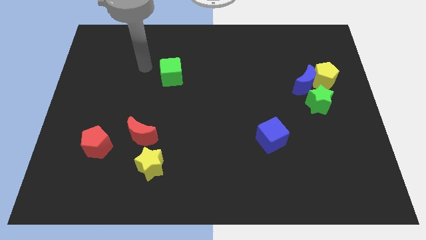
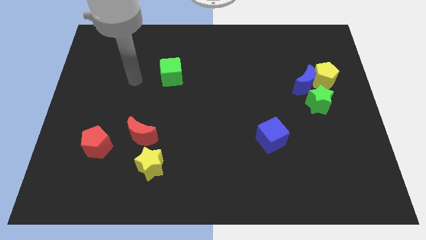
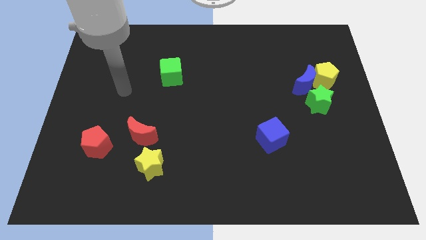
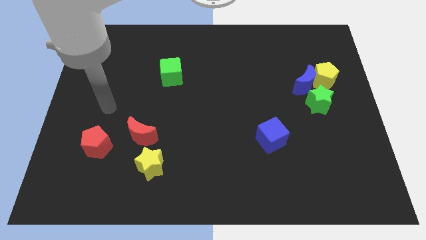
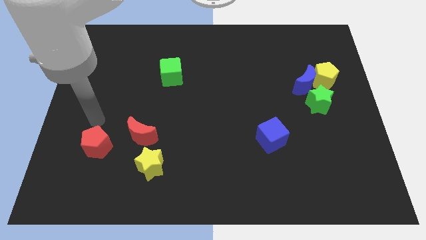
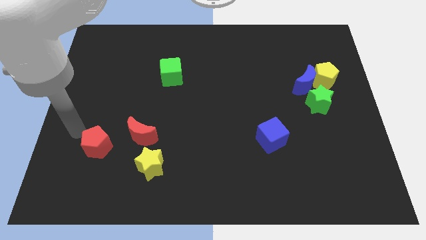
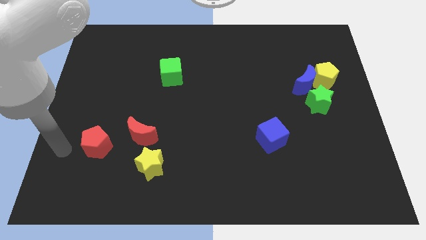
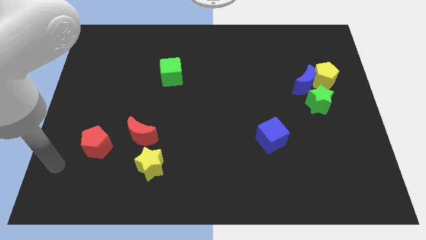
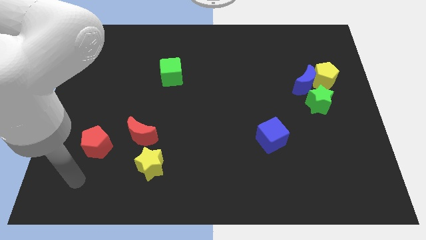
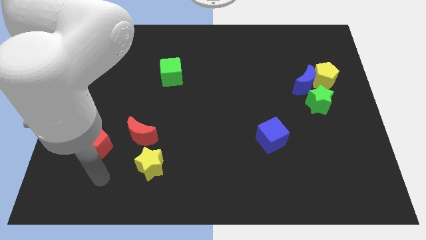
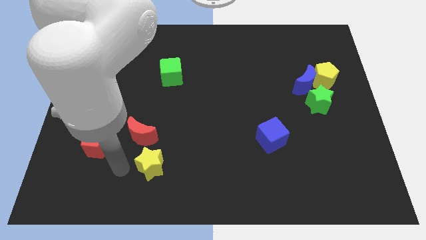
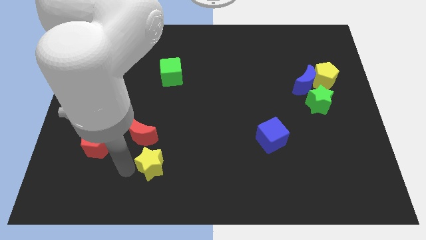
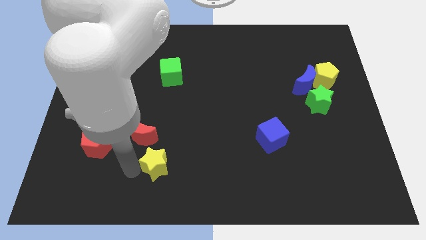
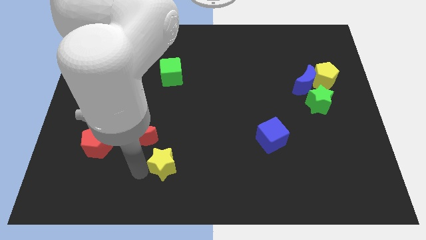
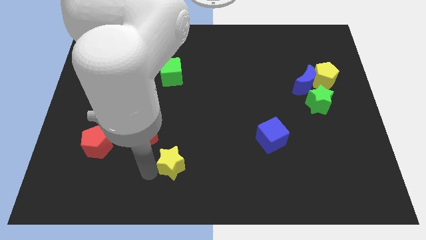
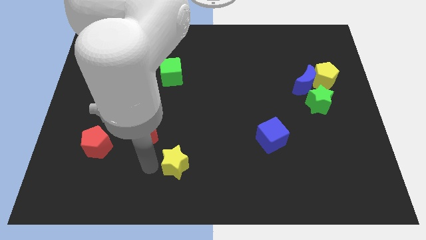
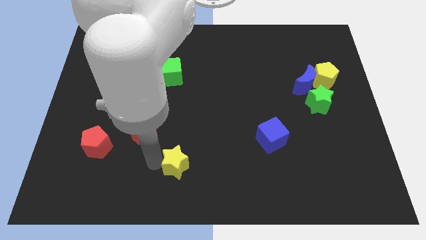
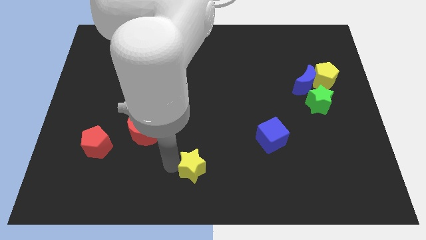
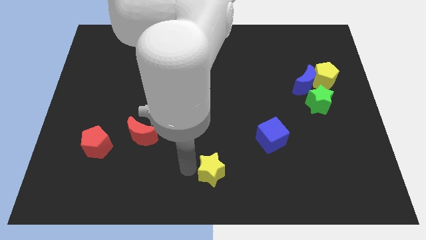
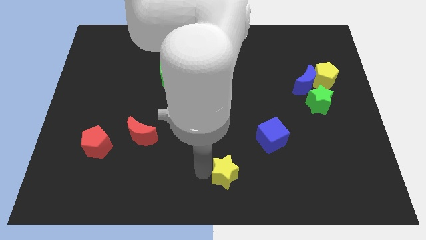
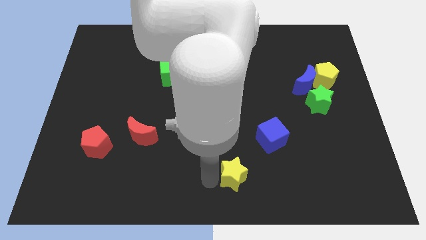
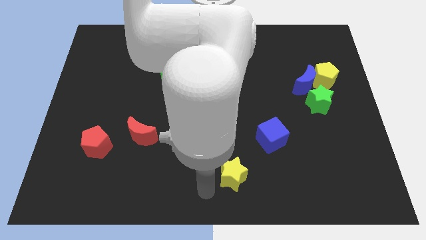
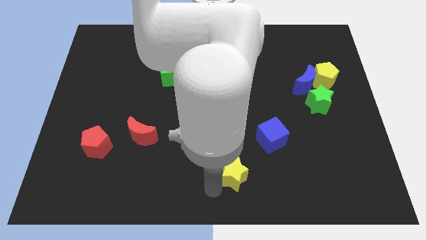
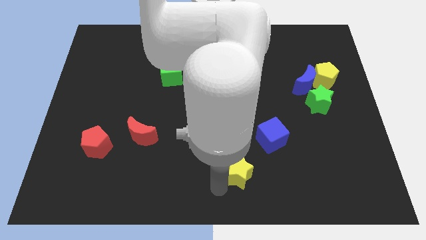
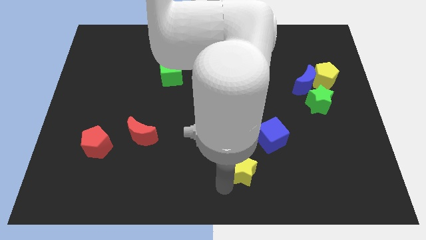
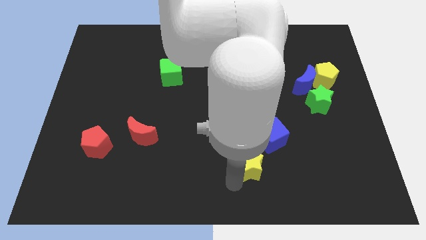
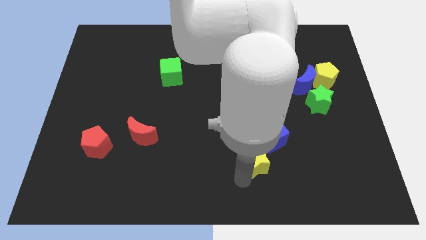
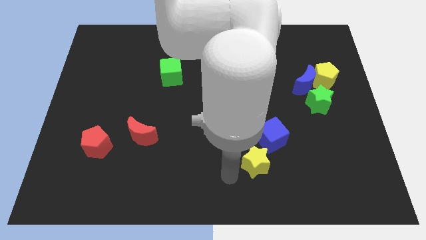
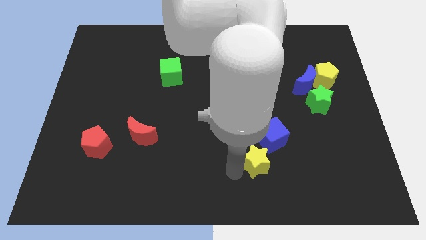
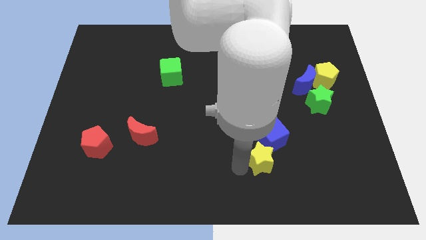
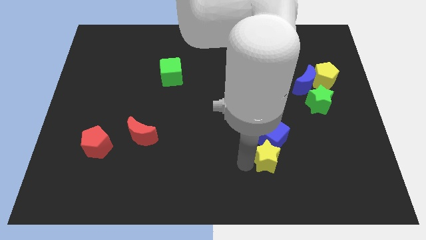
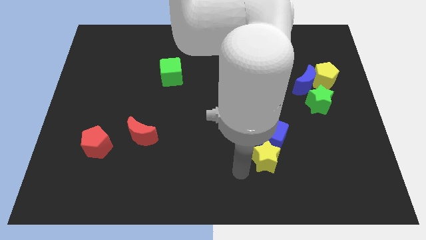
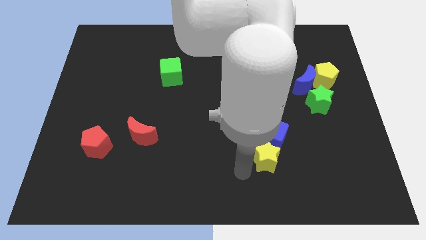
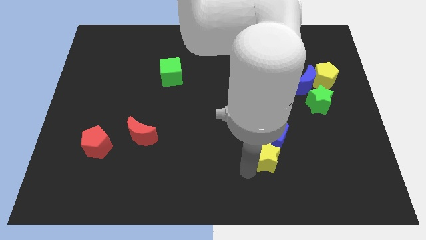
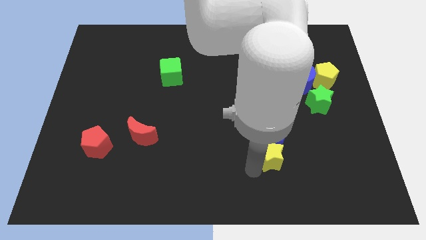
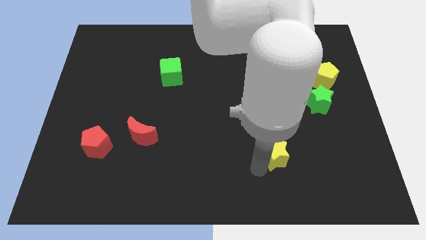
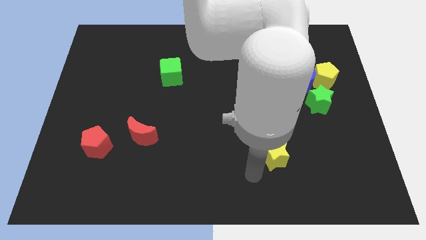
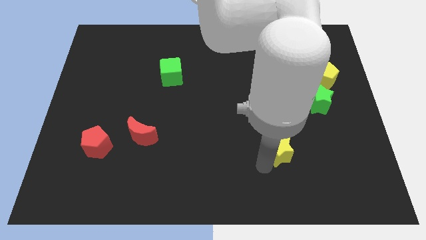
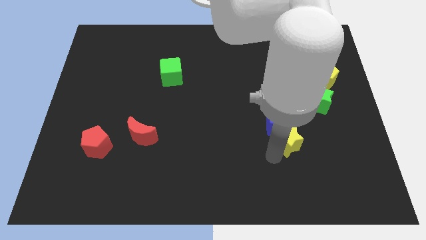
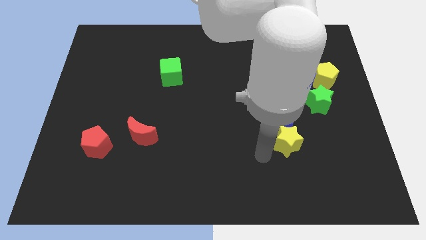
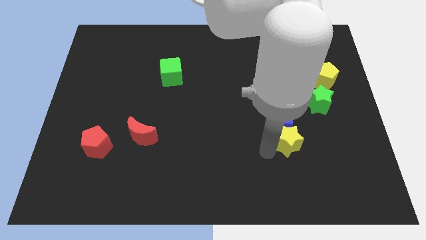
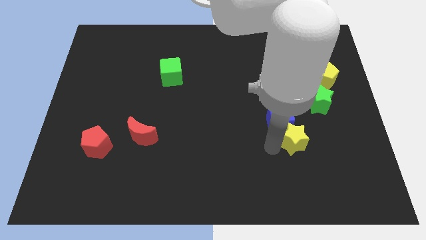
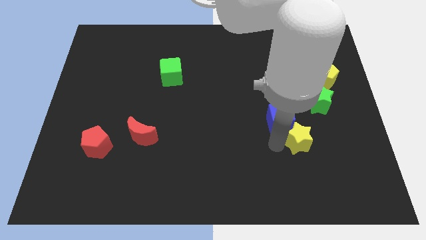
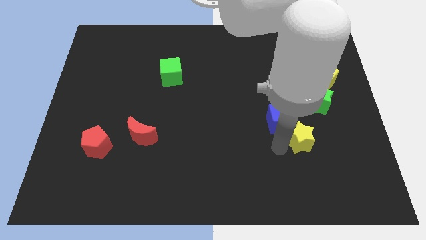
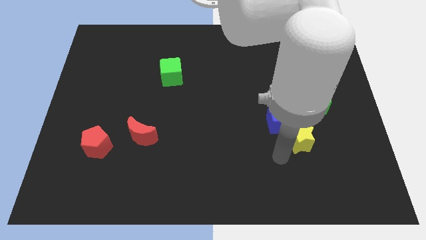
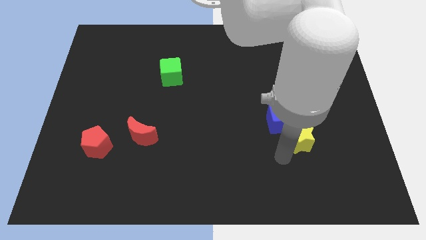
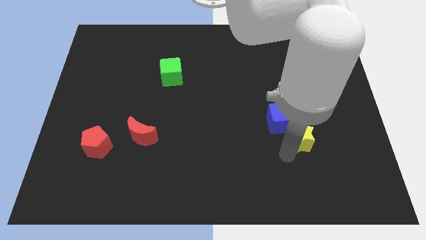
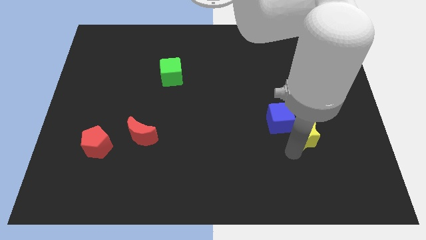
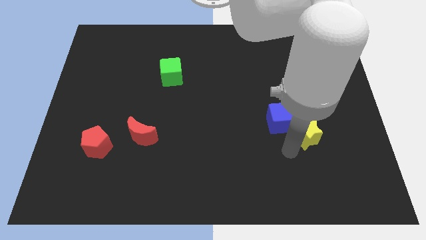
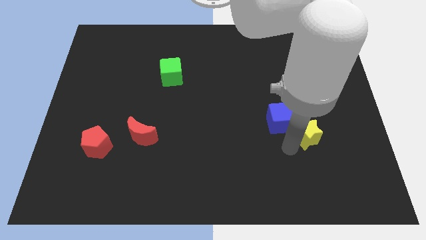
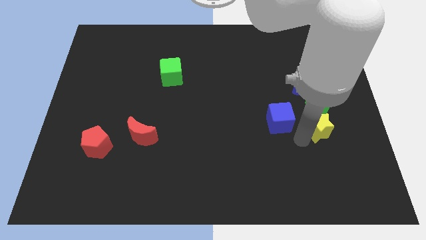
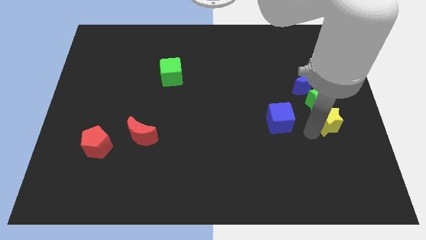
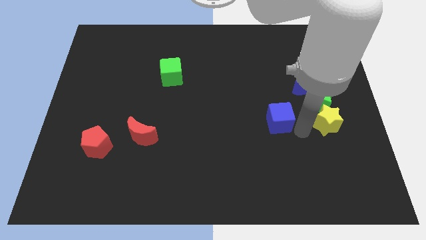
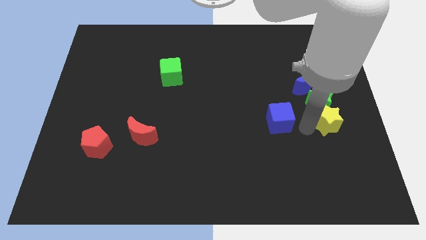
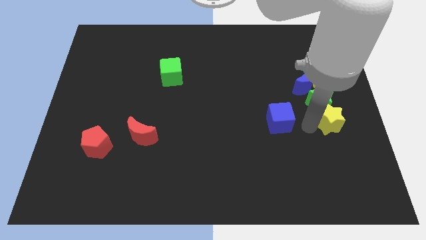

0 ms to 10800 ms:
push the yellow star to the right side of the board

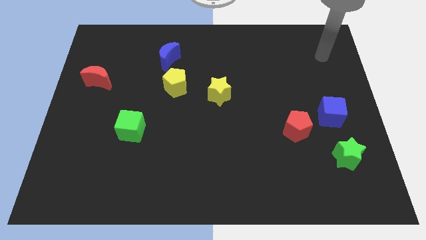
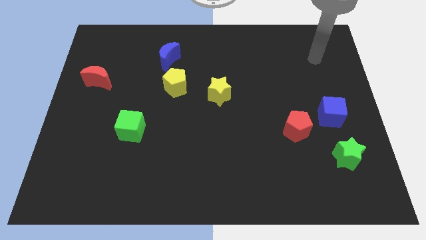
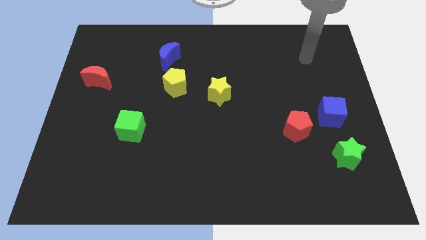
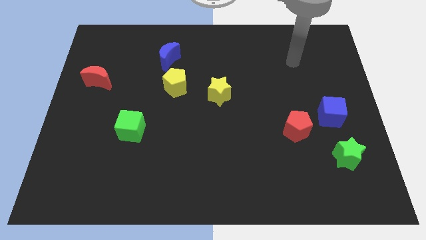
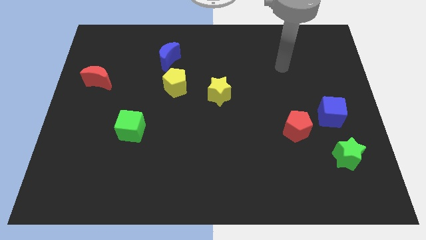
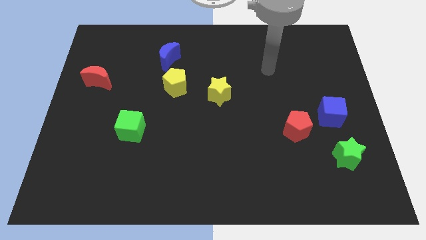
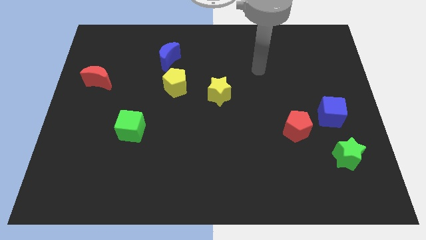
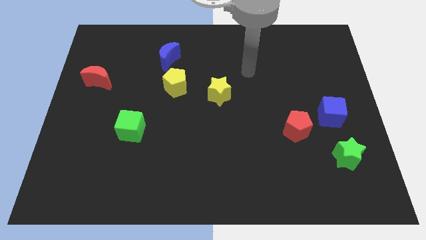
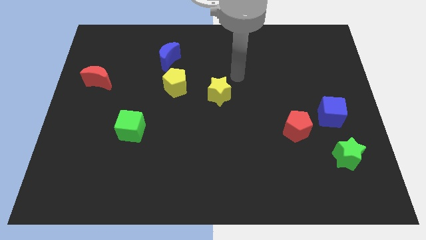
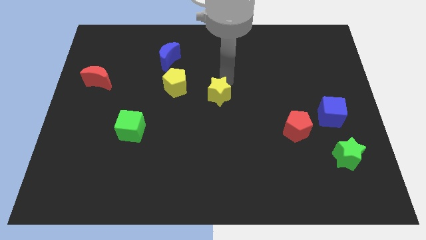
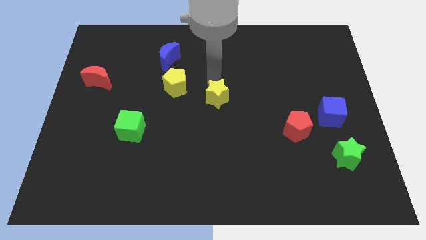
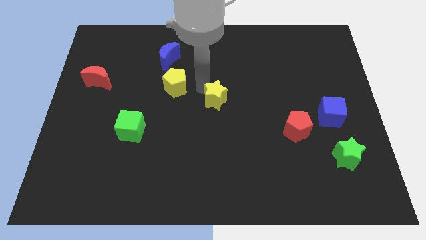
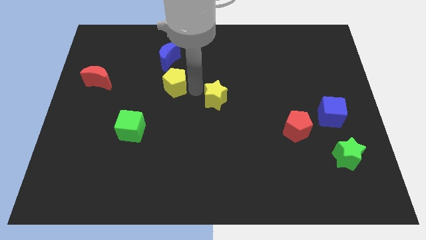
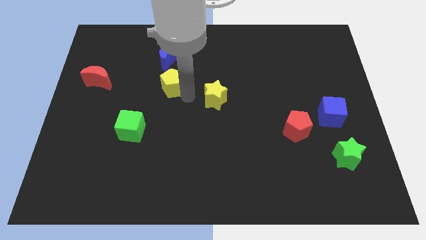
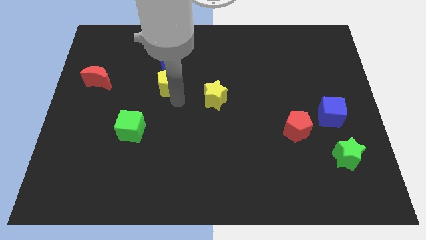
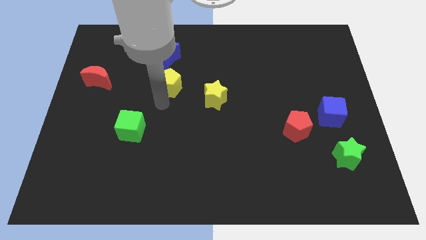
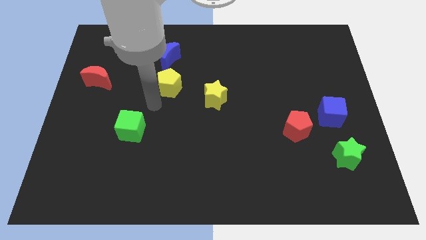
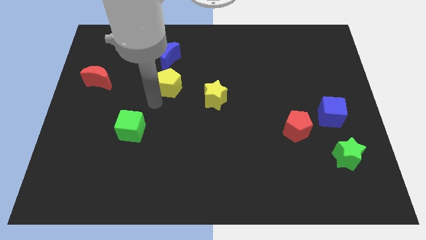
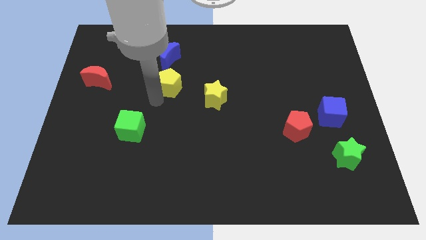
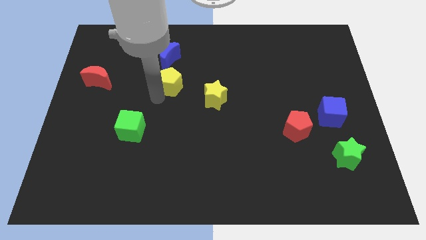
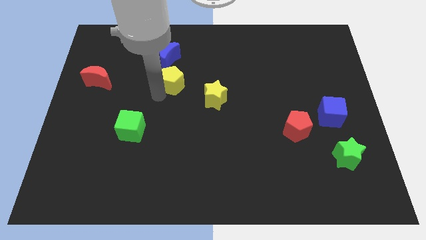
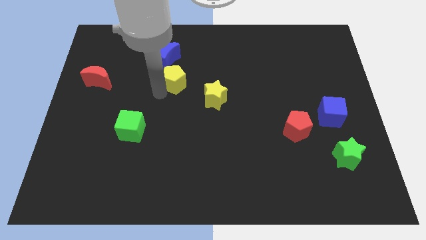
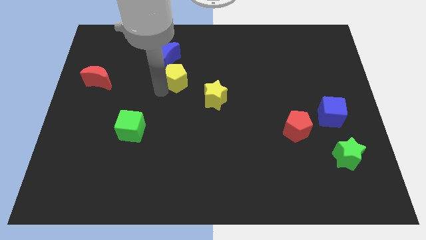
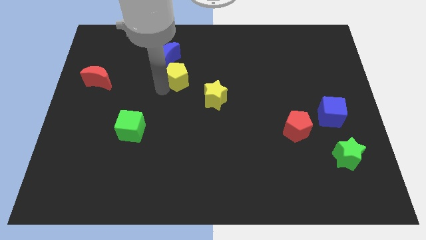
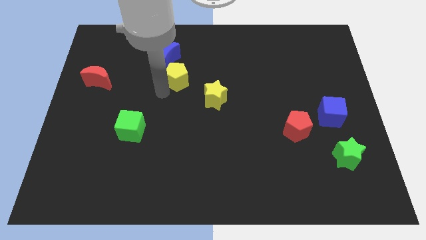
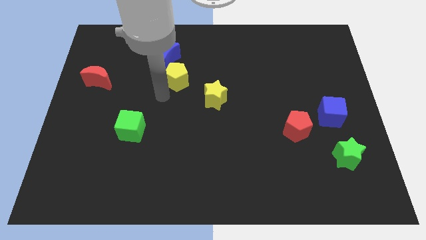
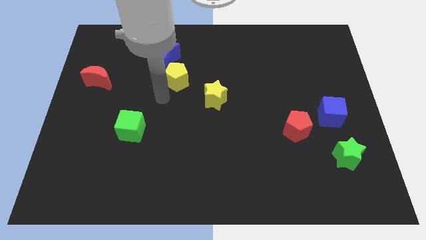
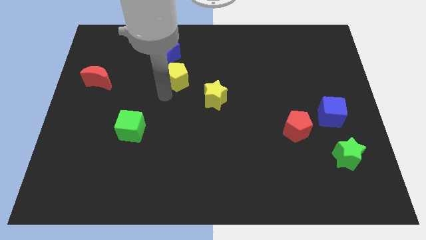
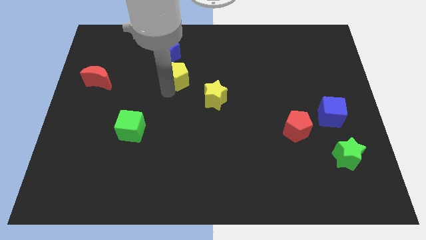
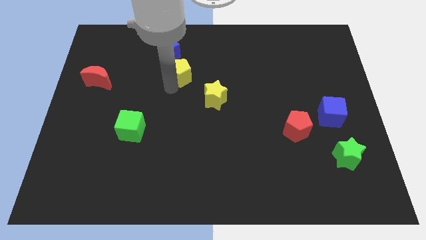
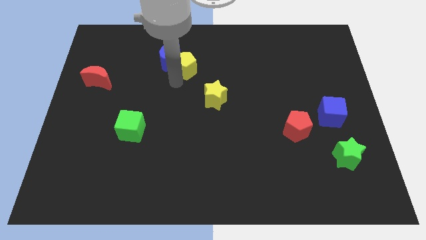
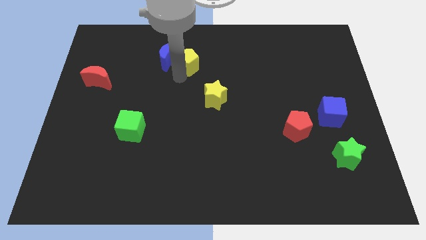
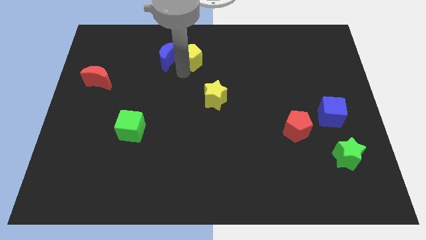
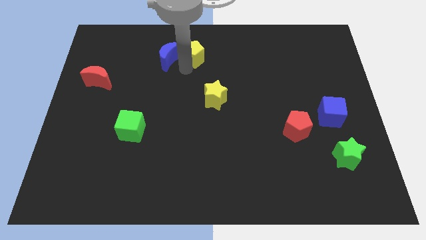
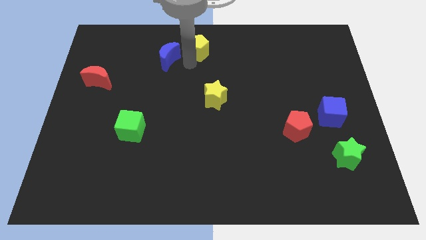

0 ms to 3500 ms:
push the yellow pentagon to the top side
